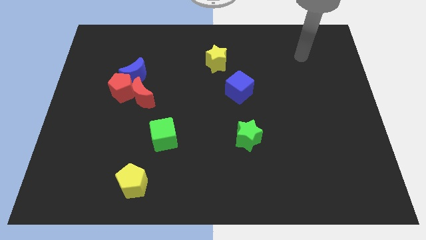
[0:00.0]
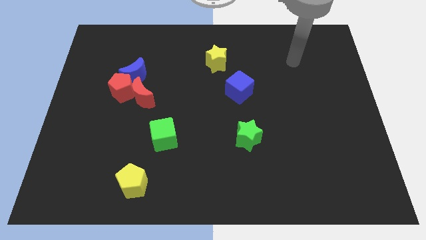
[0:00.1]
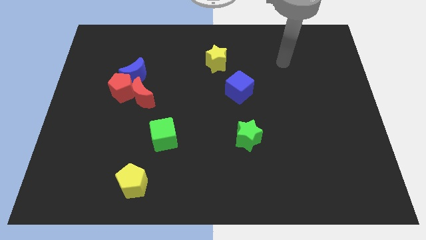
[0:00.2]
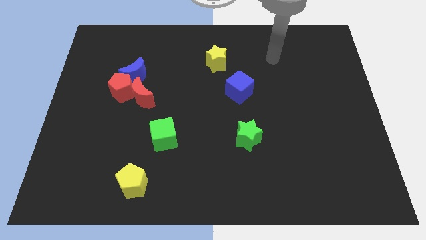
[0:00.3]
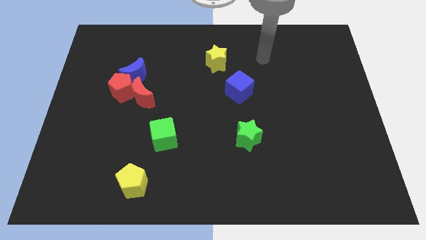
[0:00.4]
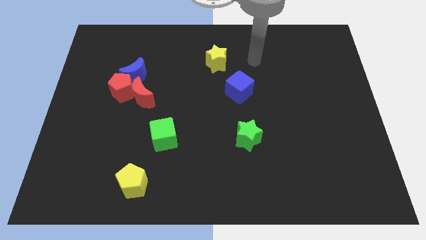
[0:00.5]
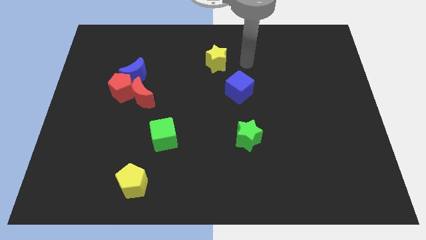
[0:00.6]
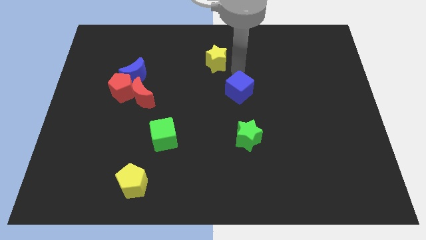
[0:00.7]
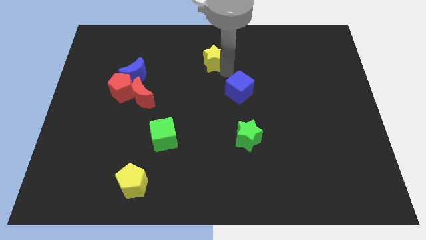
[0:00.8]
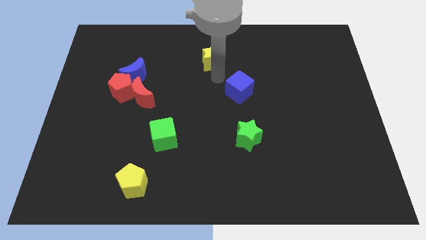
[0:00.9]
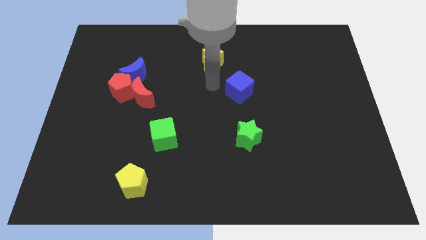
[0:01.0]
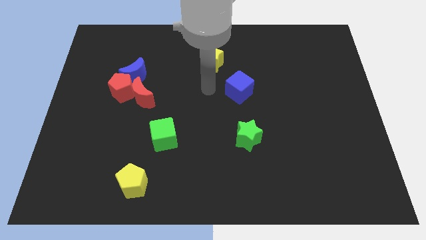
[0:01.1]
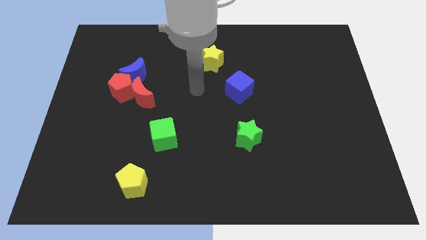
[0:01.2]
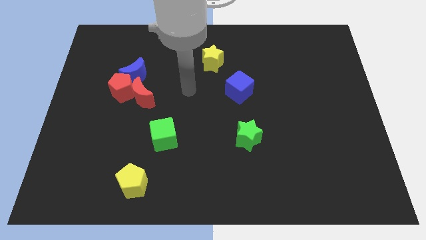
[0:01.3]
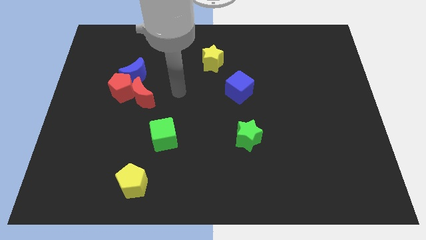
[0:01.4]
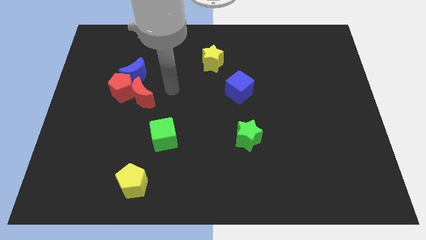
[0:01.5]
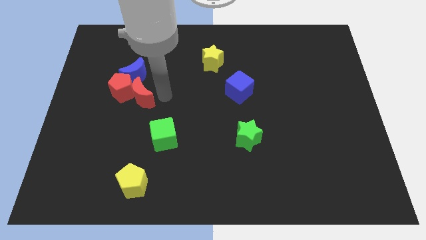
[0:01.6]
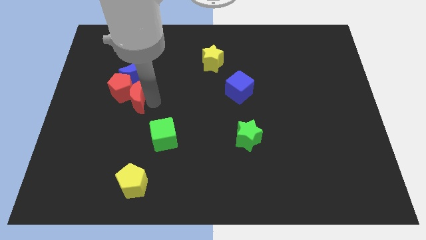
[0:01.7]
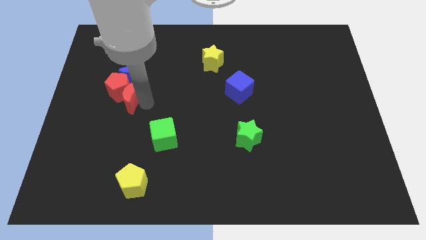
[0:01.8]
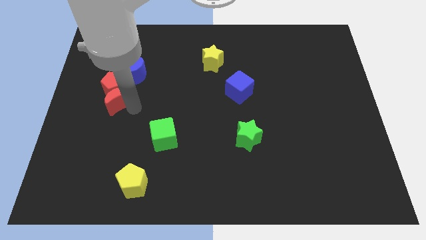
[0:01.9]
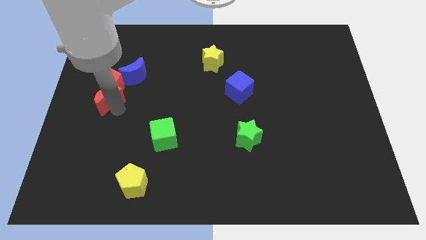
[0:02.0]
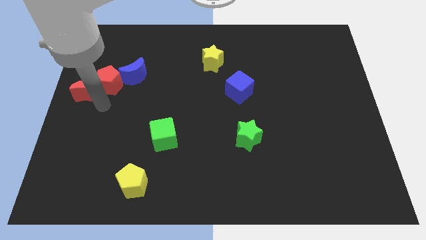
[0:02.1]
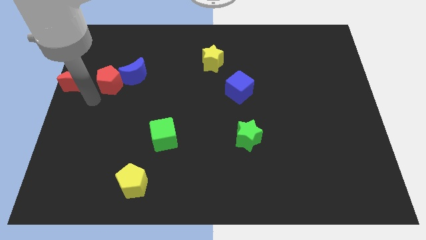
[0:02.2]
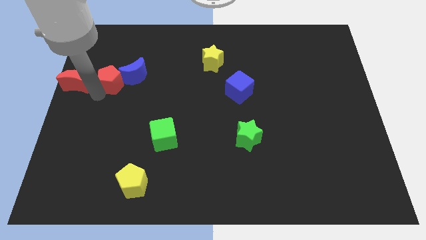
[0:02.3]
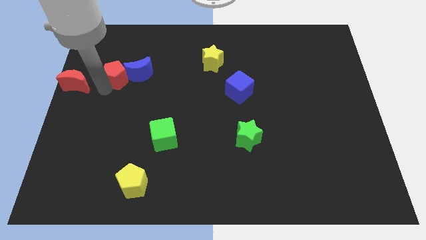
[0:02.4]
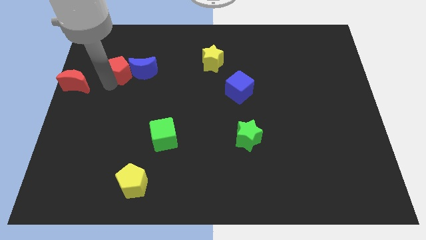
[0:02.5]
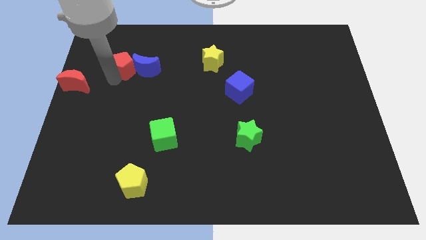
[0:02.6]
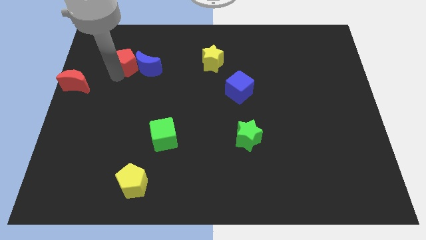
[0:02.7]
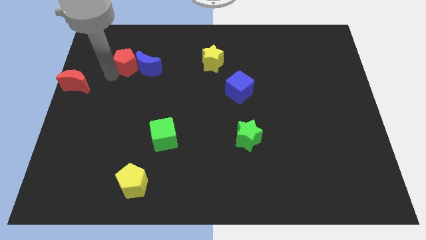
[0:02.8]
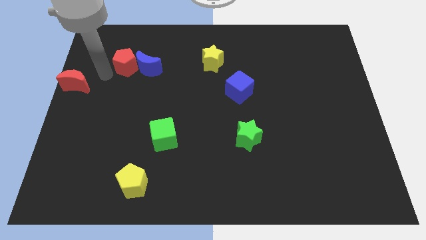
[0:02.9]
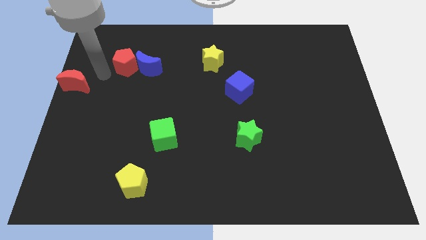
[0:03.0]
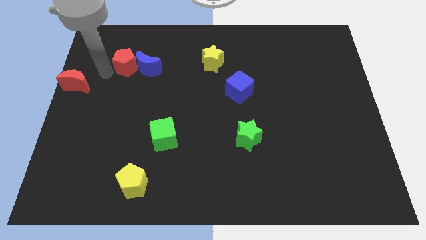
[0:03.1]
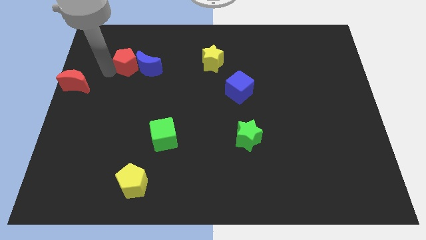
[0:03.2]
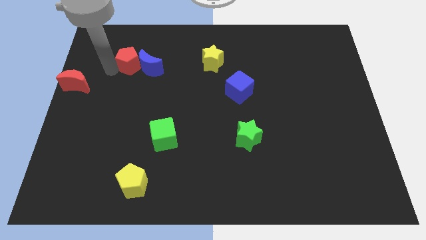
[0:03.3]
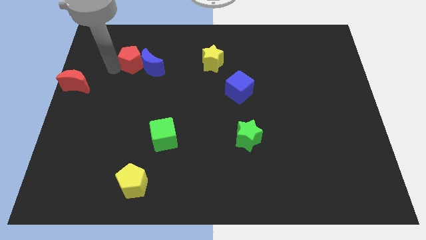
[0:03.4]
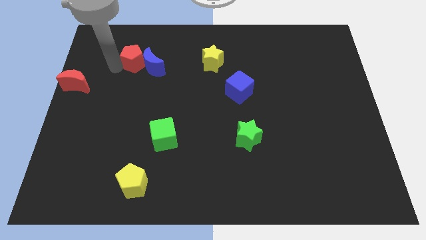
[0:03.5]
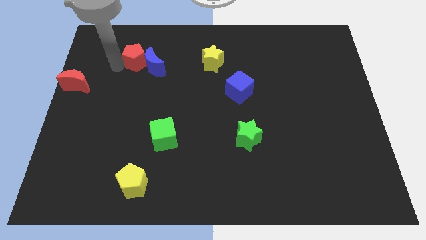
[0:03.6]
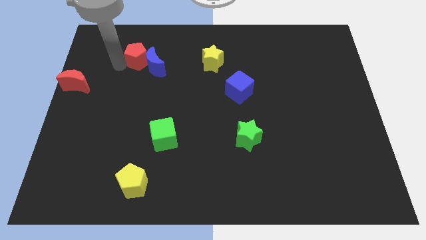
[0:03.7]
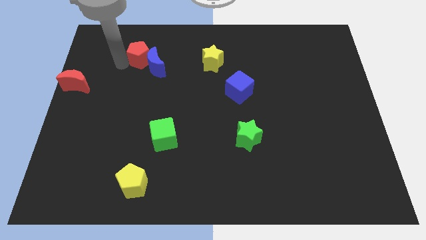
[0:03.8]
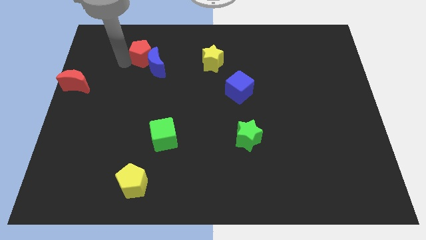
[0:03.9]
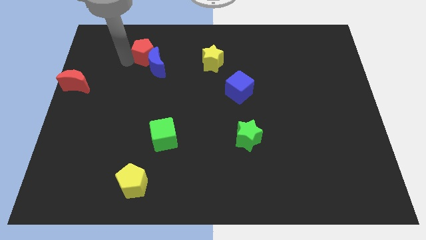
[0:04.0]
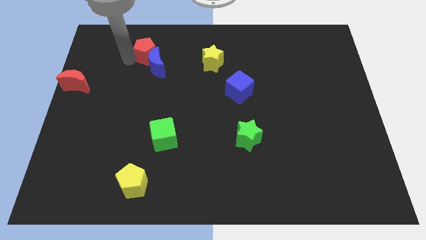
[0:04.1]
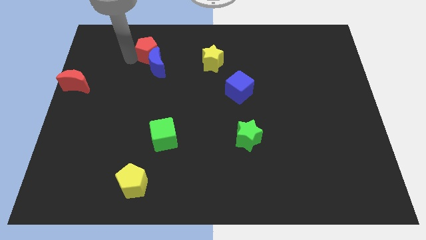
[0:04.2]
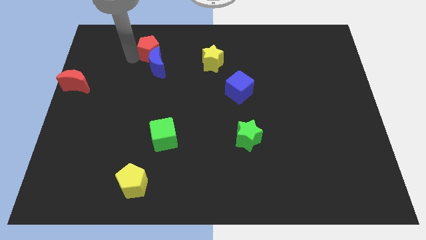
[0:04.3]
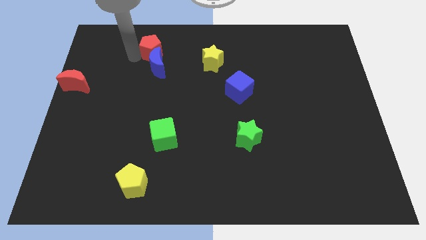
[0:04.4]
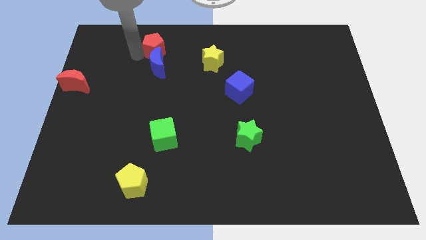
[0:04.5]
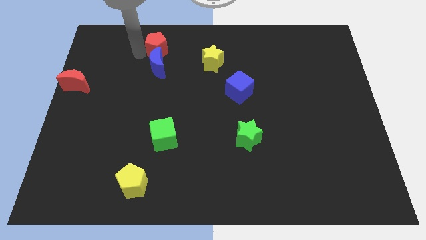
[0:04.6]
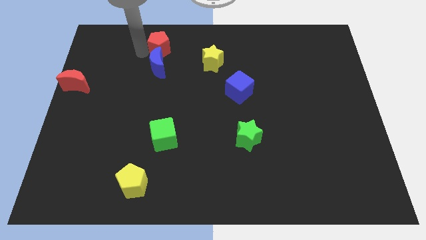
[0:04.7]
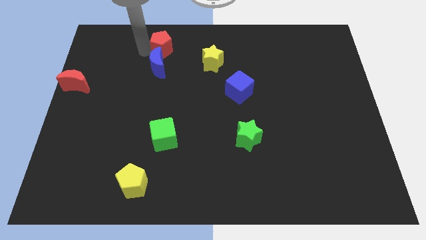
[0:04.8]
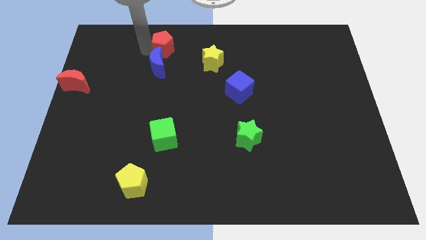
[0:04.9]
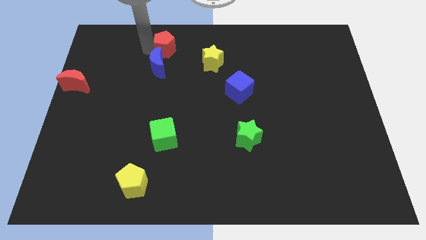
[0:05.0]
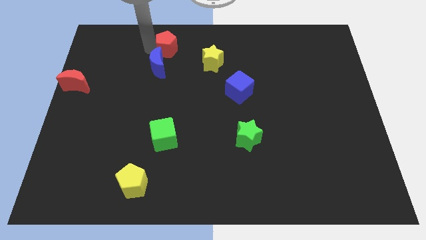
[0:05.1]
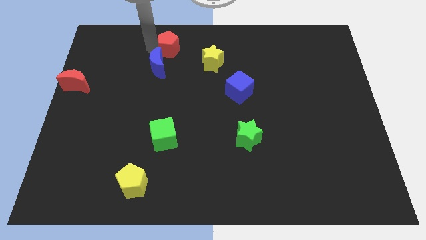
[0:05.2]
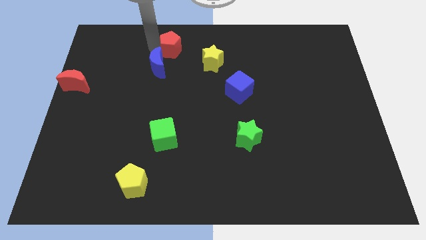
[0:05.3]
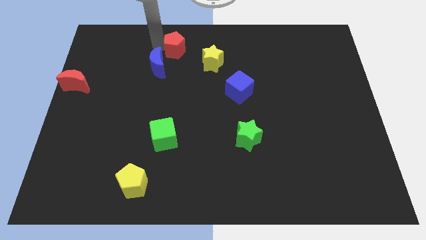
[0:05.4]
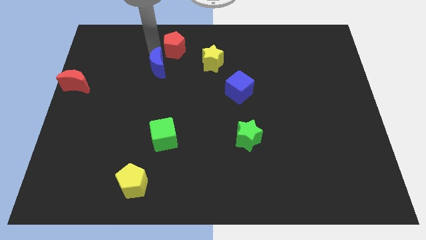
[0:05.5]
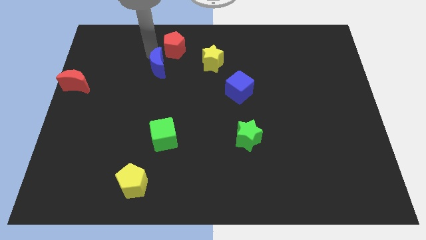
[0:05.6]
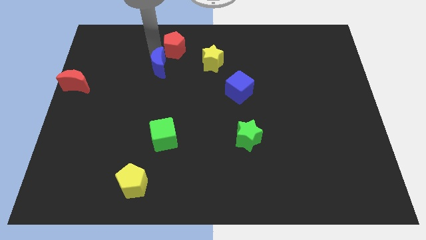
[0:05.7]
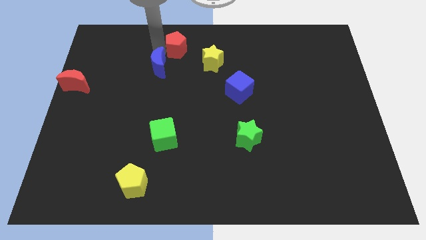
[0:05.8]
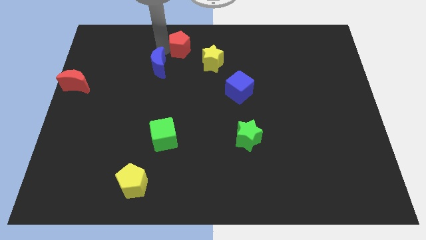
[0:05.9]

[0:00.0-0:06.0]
slide the red pentagon to the top

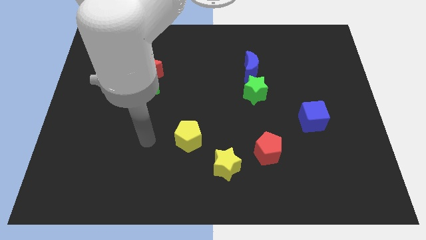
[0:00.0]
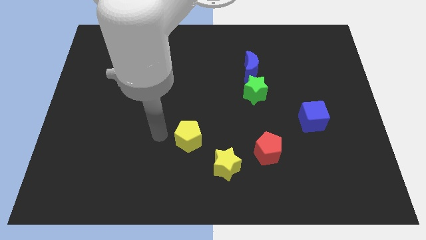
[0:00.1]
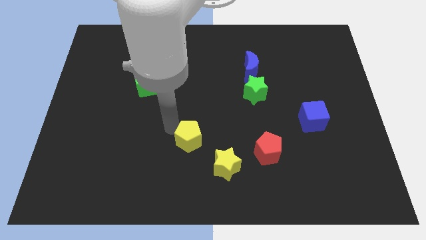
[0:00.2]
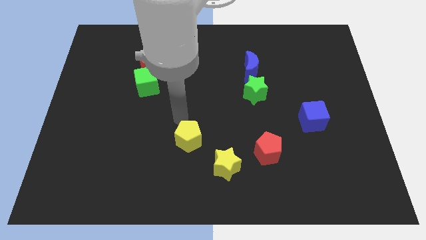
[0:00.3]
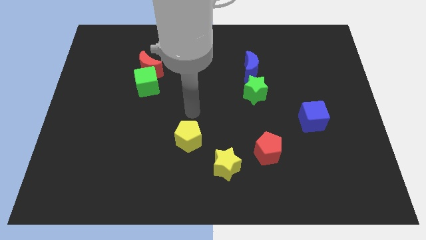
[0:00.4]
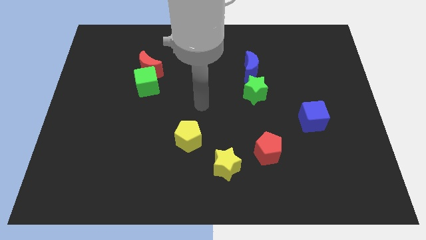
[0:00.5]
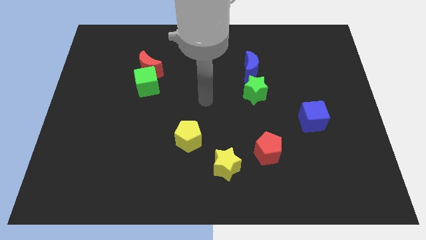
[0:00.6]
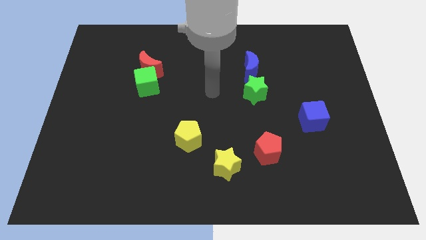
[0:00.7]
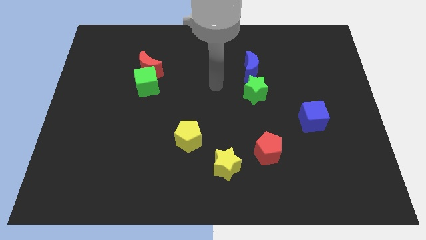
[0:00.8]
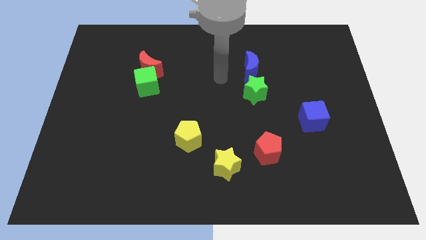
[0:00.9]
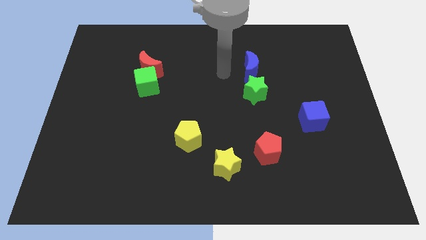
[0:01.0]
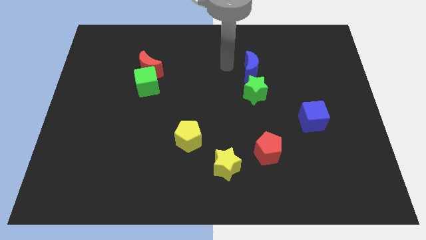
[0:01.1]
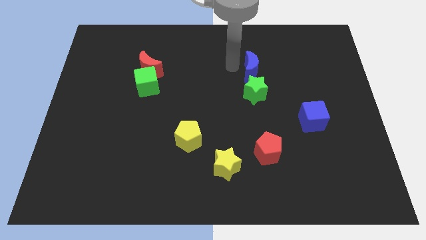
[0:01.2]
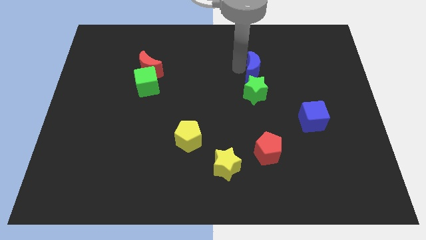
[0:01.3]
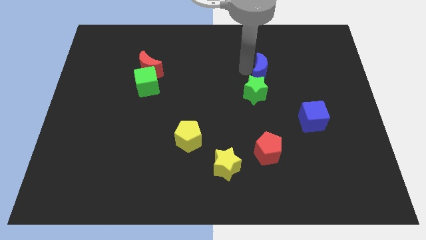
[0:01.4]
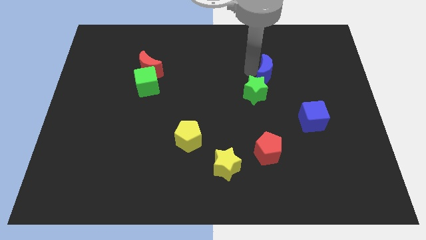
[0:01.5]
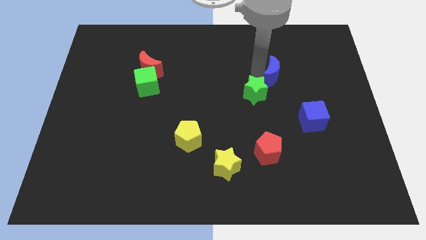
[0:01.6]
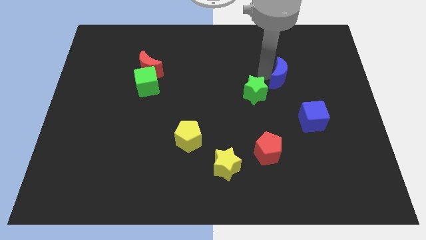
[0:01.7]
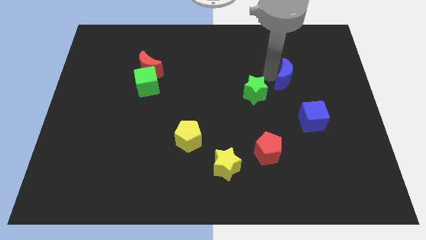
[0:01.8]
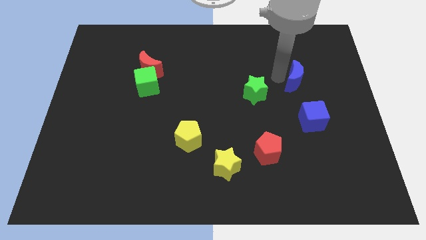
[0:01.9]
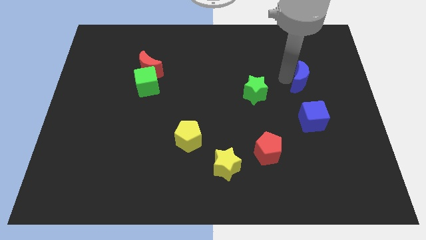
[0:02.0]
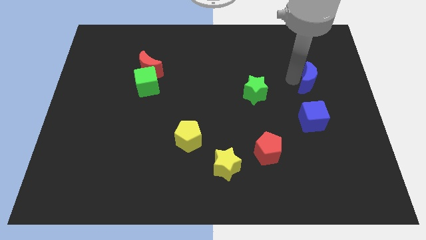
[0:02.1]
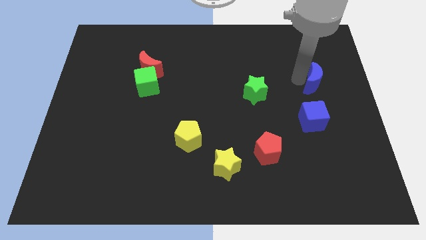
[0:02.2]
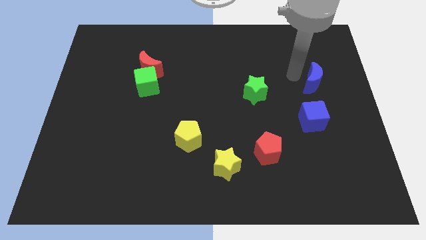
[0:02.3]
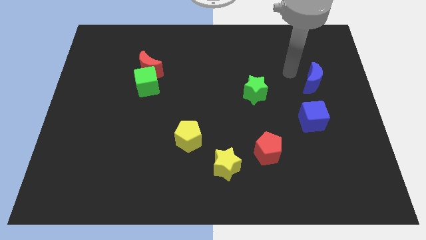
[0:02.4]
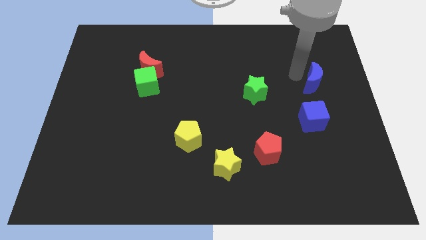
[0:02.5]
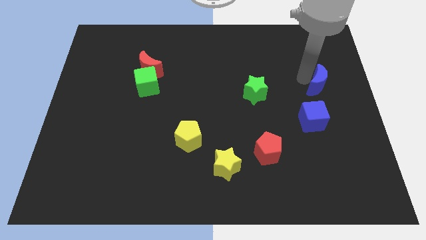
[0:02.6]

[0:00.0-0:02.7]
slide the blue moon to the center right
